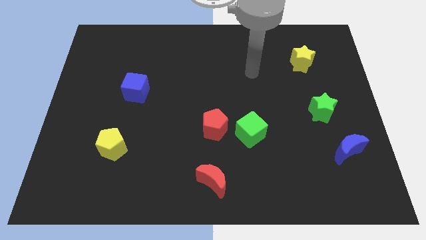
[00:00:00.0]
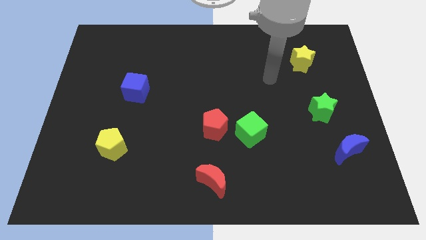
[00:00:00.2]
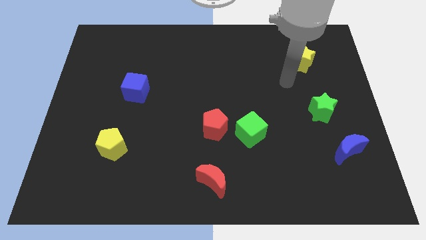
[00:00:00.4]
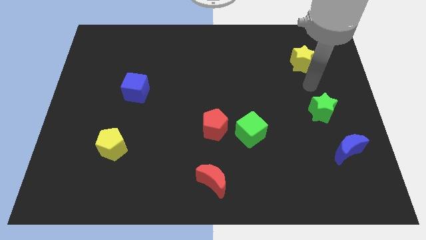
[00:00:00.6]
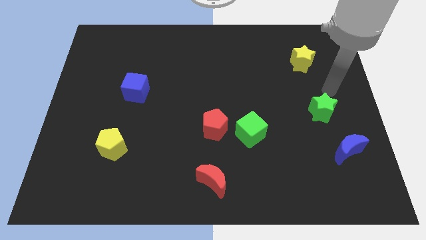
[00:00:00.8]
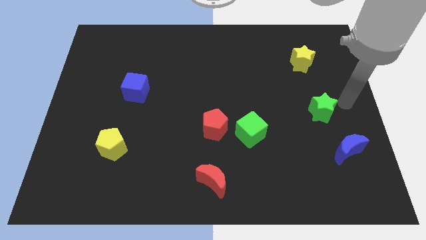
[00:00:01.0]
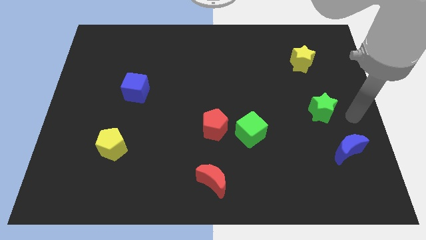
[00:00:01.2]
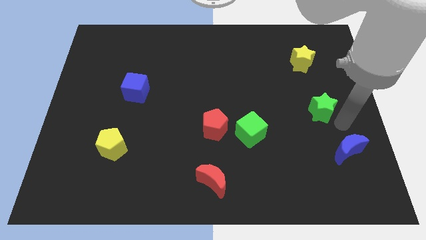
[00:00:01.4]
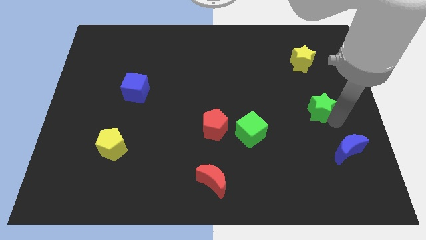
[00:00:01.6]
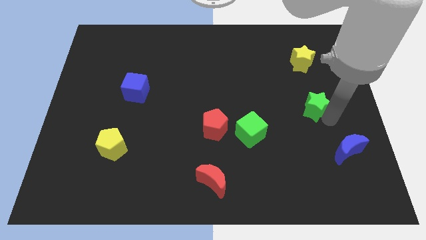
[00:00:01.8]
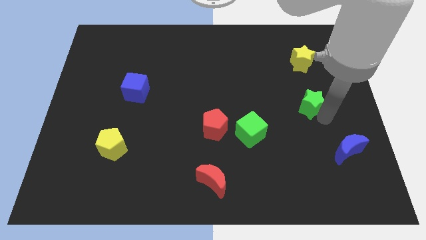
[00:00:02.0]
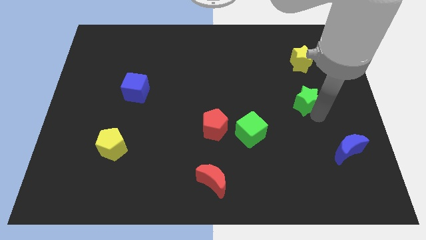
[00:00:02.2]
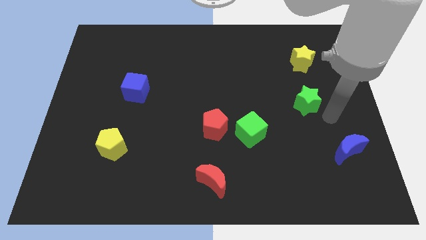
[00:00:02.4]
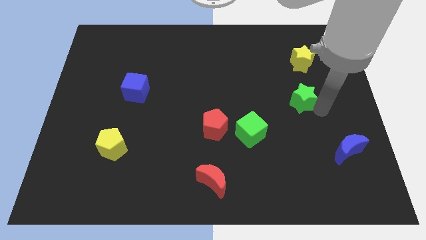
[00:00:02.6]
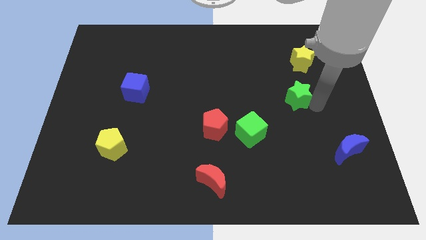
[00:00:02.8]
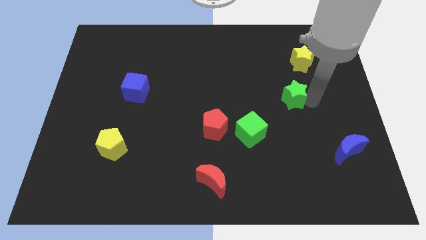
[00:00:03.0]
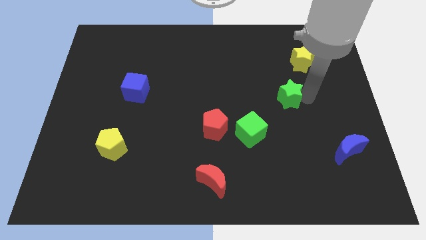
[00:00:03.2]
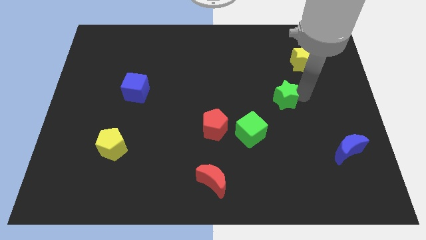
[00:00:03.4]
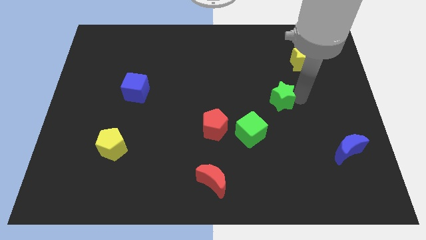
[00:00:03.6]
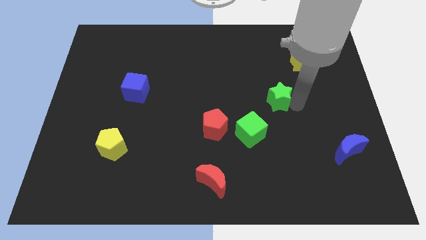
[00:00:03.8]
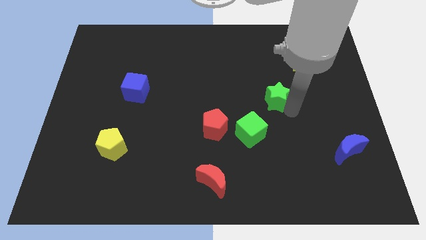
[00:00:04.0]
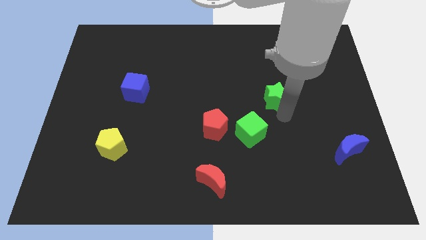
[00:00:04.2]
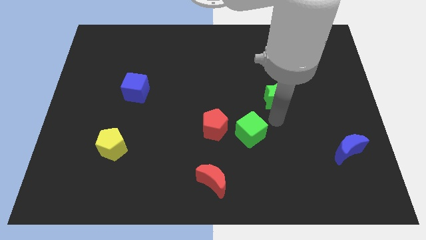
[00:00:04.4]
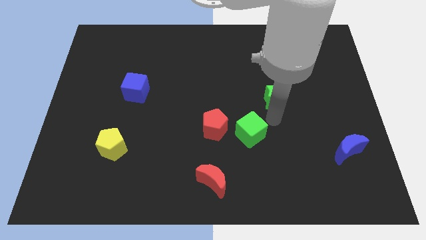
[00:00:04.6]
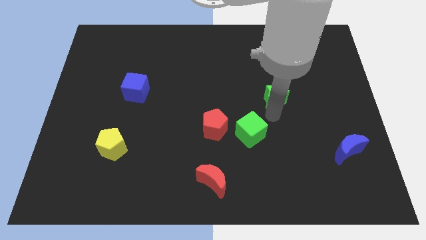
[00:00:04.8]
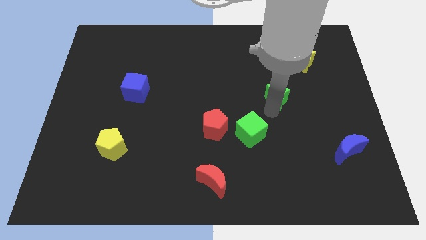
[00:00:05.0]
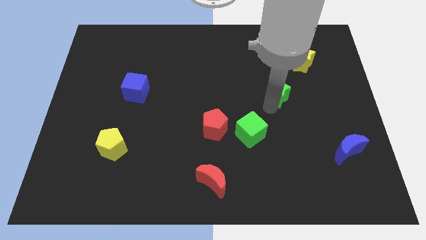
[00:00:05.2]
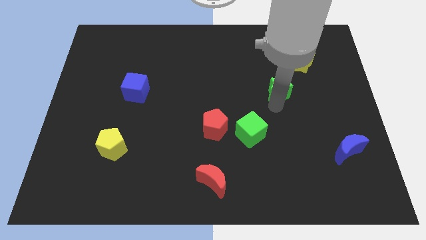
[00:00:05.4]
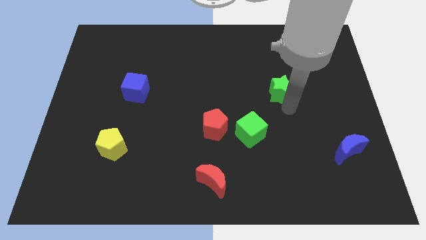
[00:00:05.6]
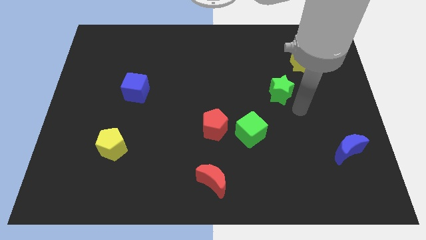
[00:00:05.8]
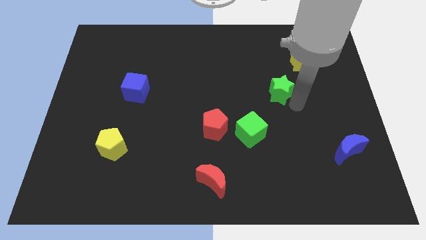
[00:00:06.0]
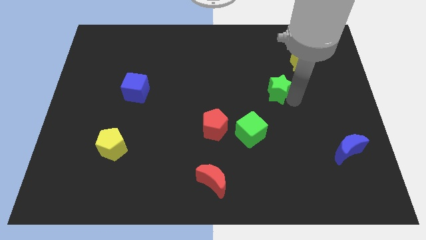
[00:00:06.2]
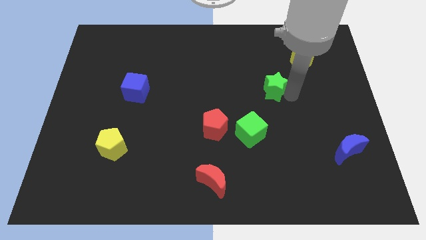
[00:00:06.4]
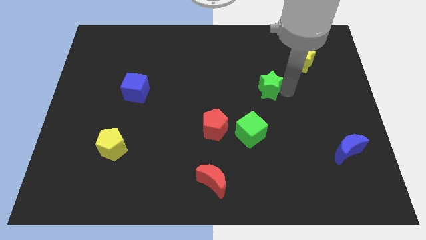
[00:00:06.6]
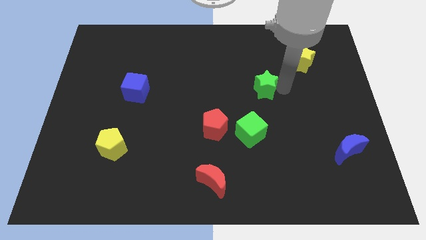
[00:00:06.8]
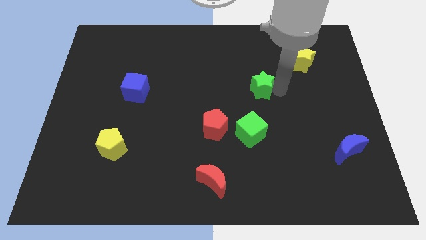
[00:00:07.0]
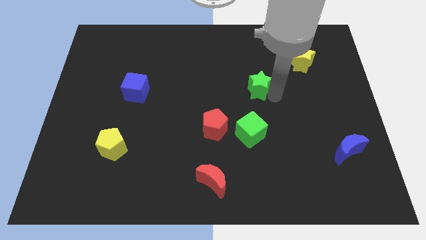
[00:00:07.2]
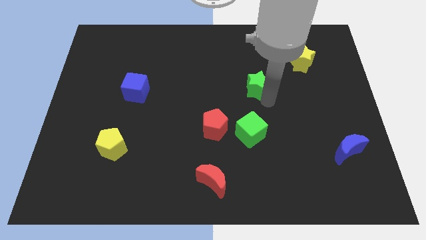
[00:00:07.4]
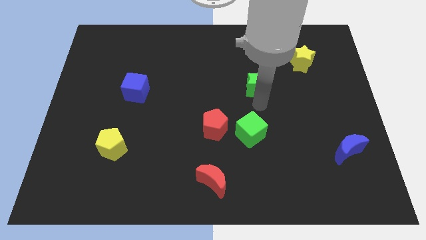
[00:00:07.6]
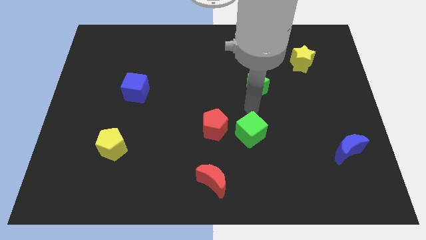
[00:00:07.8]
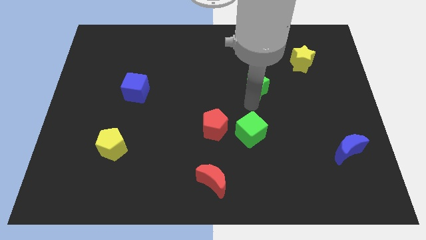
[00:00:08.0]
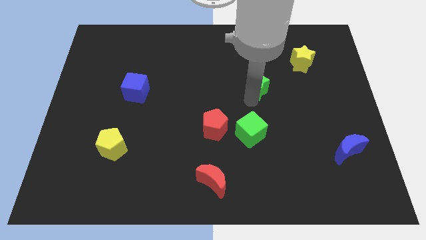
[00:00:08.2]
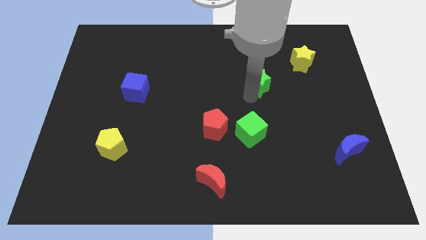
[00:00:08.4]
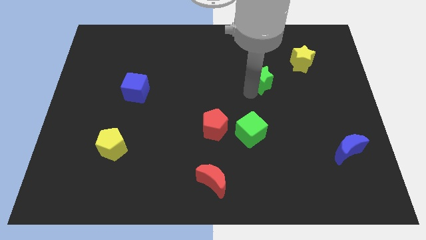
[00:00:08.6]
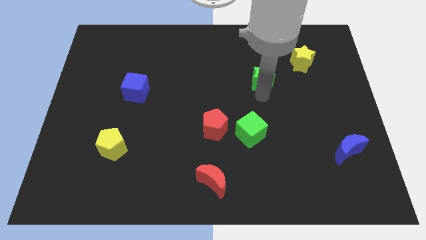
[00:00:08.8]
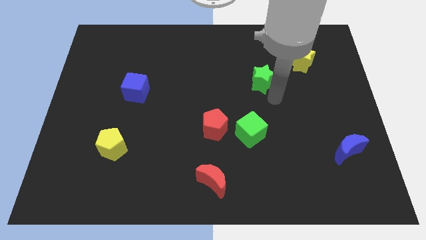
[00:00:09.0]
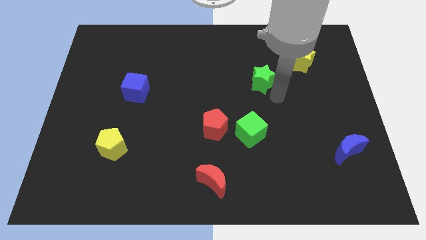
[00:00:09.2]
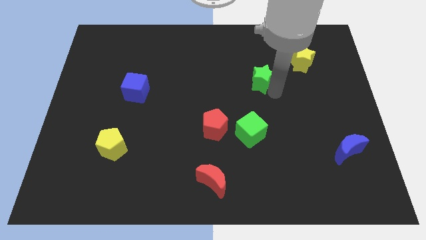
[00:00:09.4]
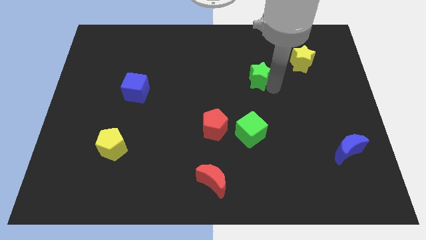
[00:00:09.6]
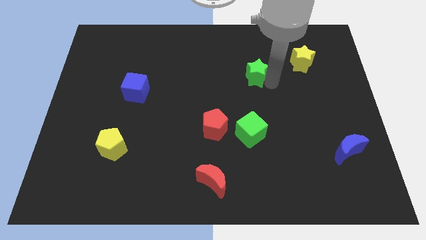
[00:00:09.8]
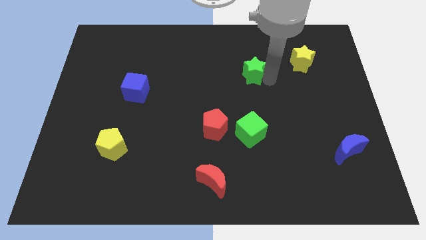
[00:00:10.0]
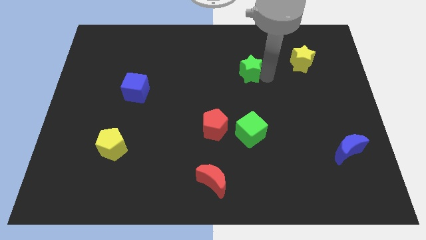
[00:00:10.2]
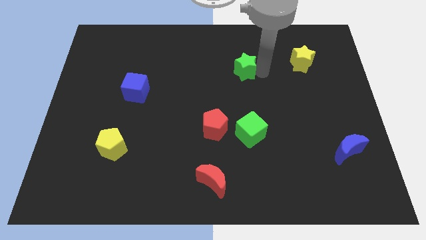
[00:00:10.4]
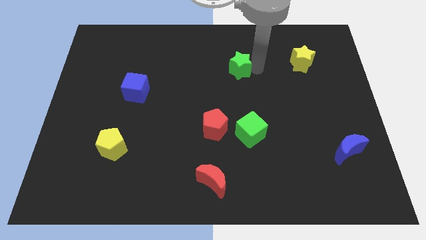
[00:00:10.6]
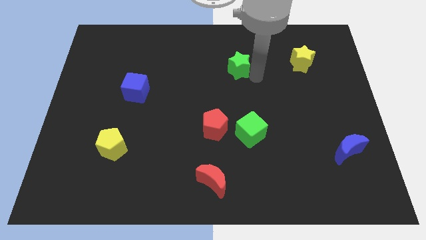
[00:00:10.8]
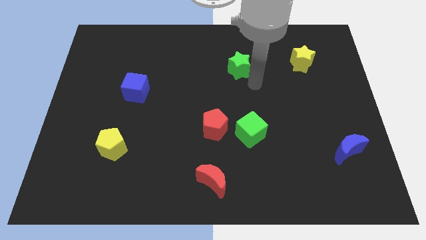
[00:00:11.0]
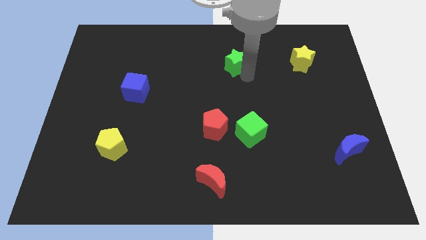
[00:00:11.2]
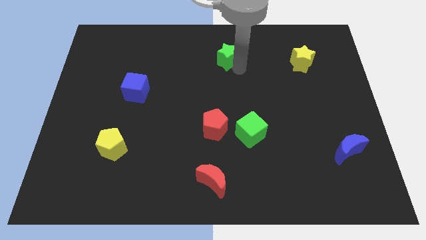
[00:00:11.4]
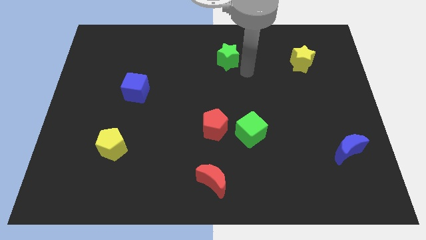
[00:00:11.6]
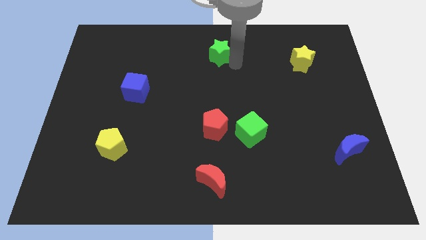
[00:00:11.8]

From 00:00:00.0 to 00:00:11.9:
put the green star to the towards your base

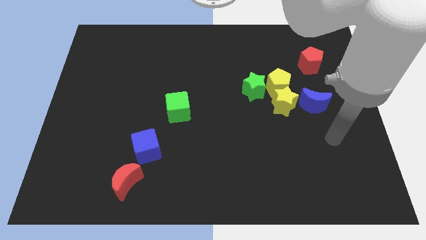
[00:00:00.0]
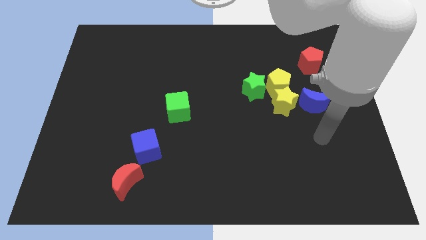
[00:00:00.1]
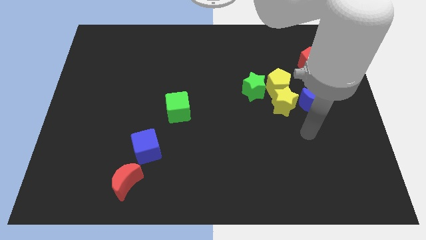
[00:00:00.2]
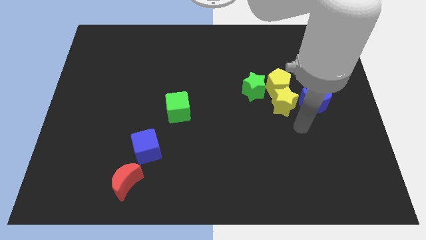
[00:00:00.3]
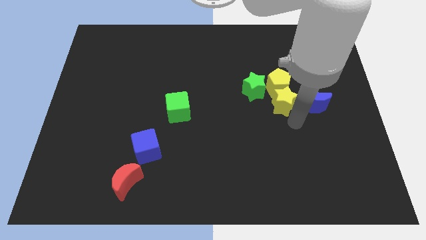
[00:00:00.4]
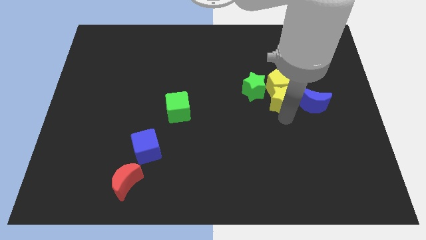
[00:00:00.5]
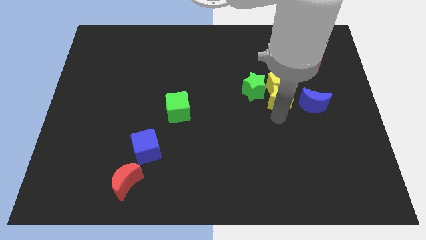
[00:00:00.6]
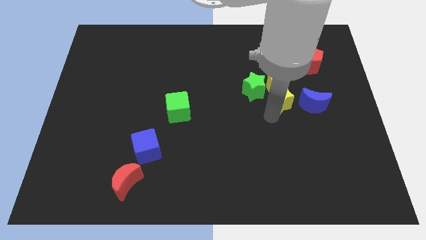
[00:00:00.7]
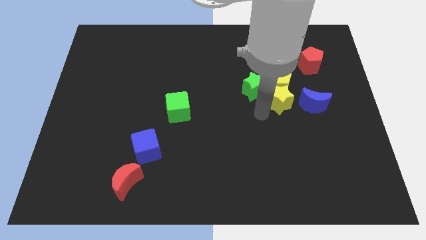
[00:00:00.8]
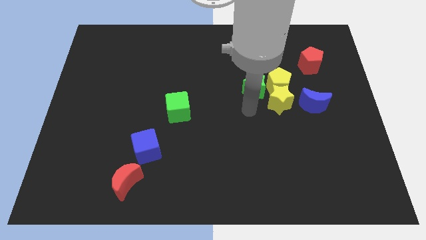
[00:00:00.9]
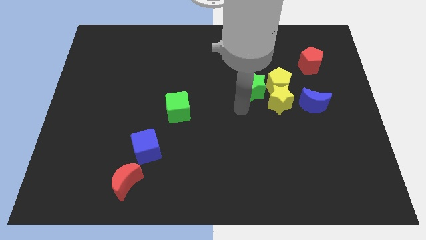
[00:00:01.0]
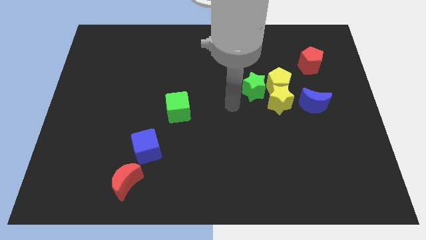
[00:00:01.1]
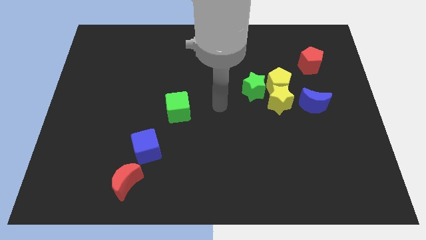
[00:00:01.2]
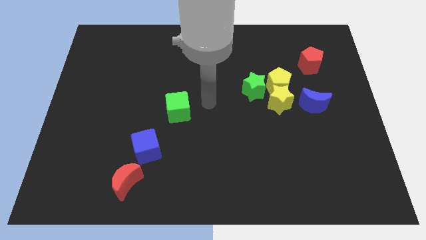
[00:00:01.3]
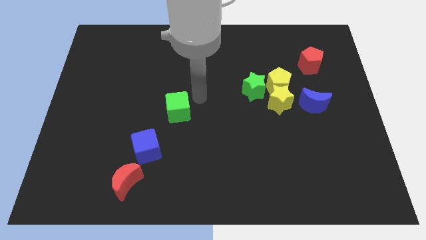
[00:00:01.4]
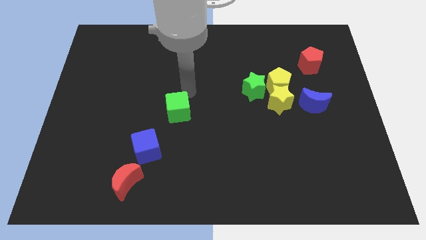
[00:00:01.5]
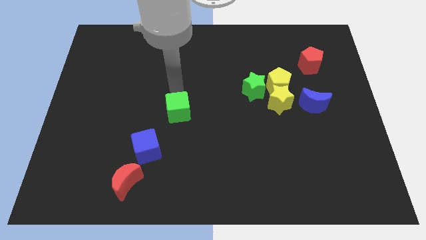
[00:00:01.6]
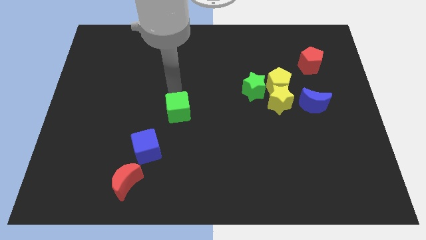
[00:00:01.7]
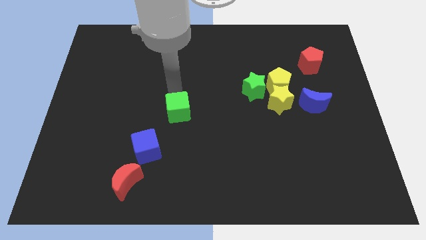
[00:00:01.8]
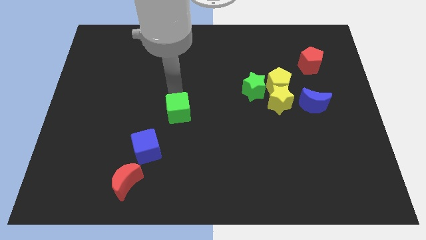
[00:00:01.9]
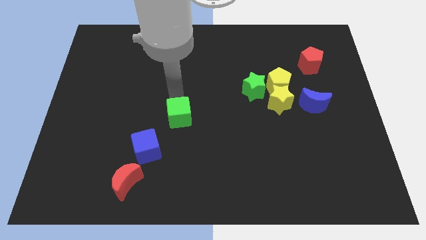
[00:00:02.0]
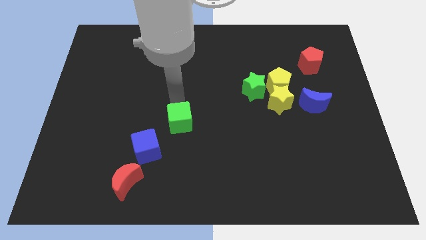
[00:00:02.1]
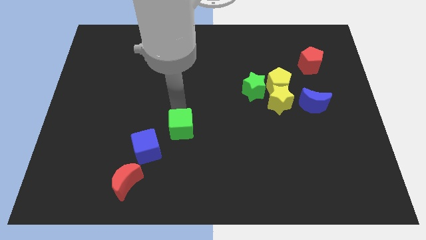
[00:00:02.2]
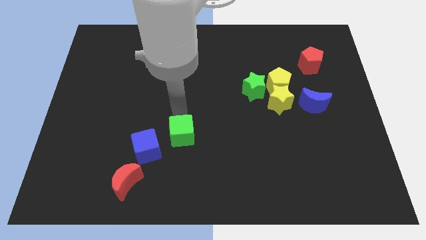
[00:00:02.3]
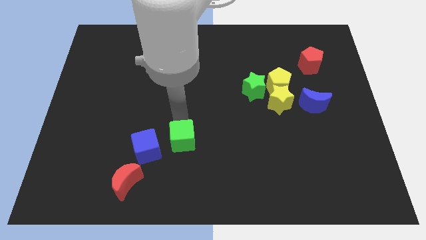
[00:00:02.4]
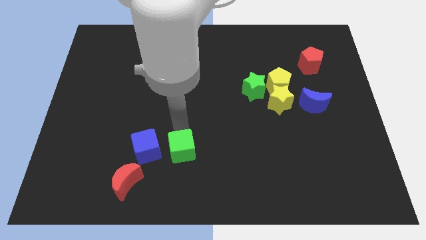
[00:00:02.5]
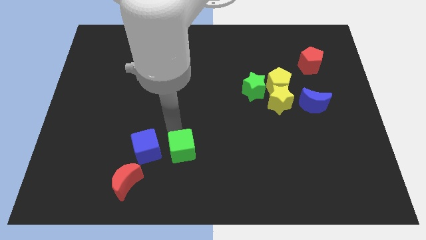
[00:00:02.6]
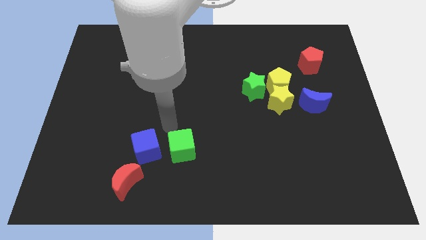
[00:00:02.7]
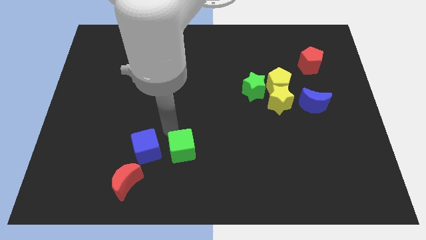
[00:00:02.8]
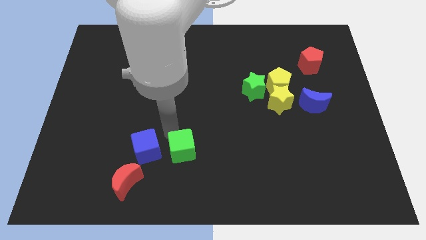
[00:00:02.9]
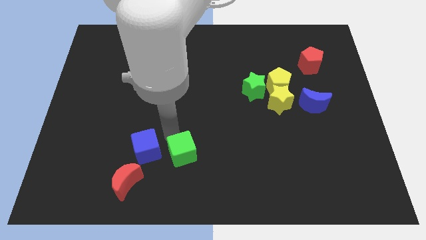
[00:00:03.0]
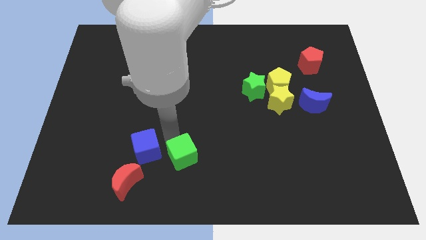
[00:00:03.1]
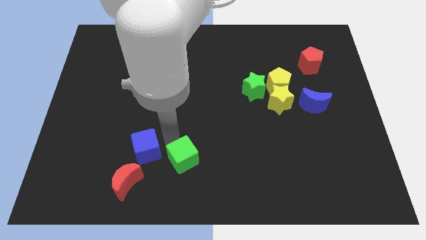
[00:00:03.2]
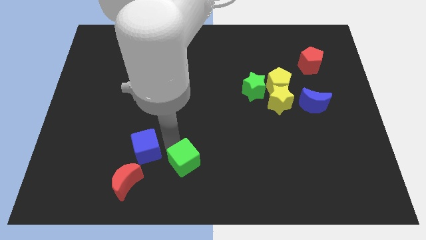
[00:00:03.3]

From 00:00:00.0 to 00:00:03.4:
slide the green cube to the bottom
